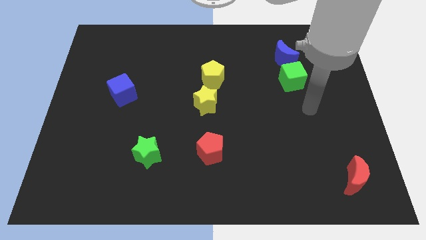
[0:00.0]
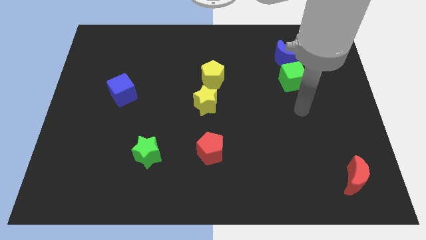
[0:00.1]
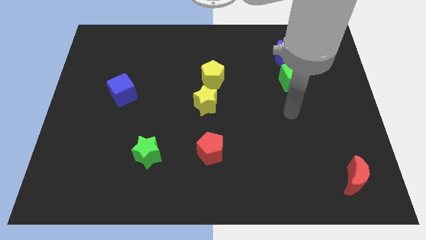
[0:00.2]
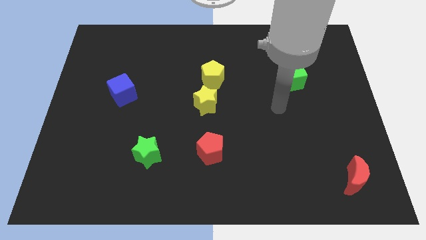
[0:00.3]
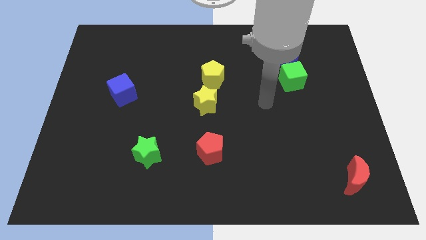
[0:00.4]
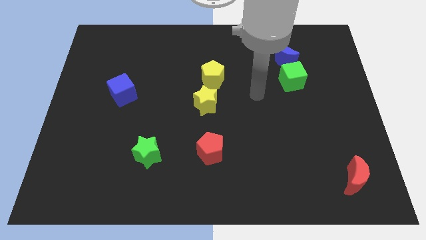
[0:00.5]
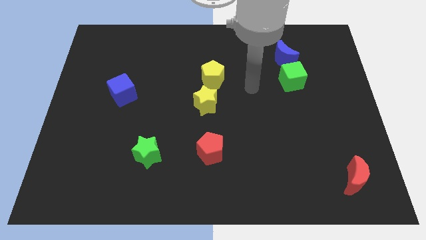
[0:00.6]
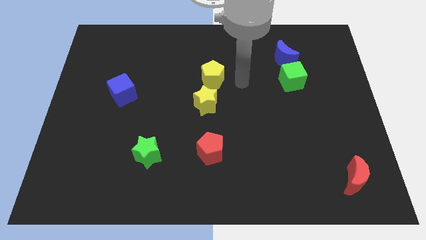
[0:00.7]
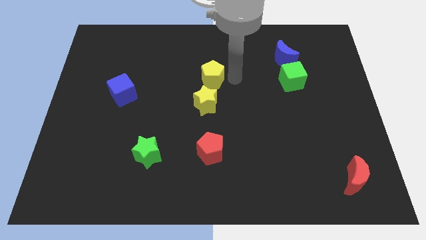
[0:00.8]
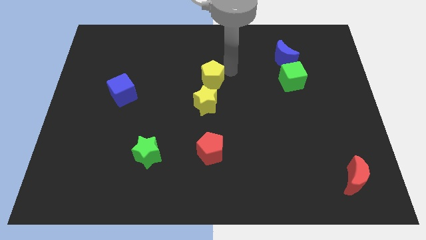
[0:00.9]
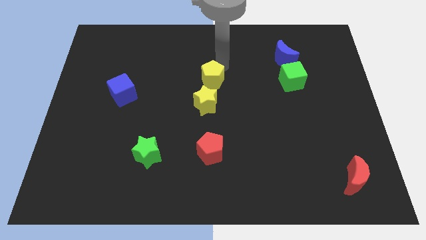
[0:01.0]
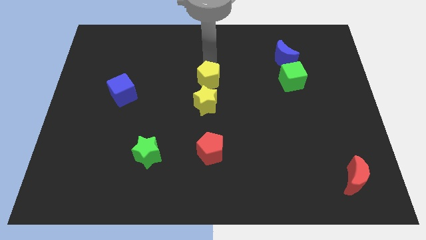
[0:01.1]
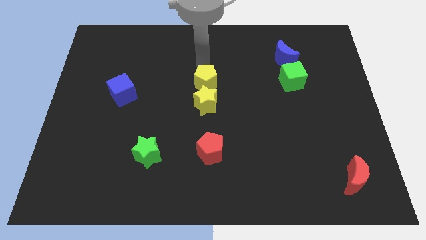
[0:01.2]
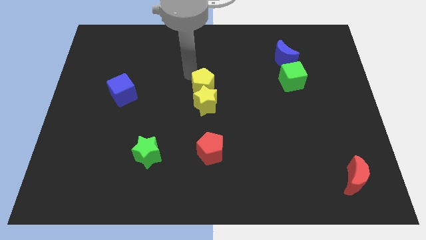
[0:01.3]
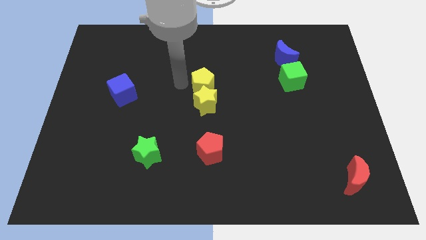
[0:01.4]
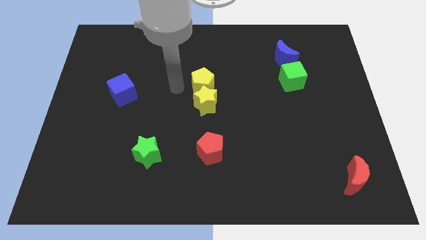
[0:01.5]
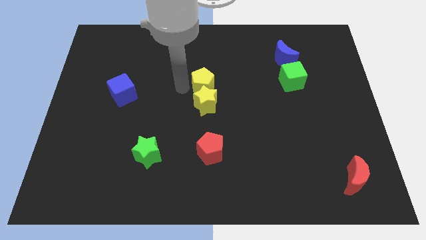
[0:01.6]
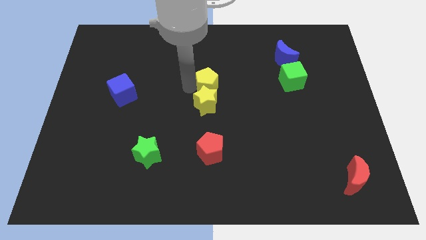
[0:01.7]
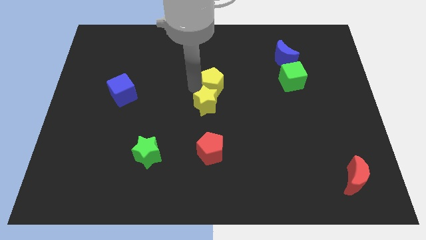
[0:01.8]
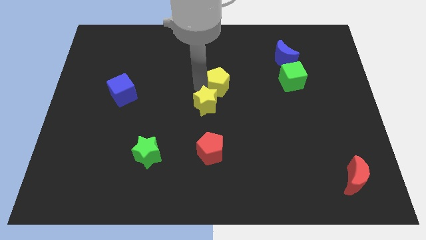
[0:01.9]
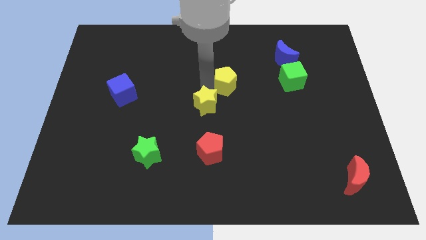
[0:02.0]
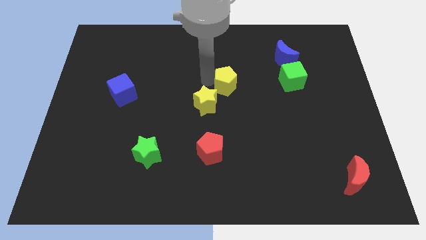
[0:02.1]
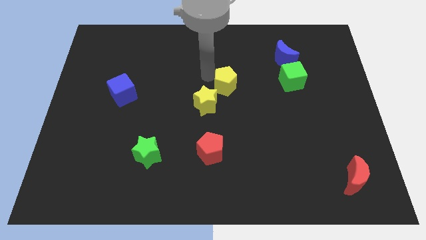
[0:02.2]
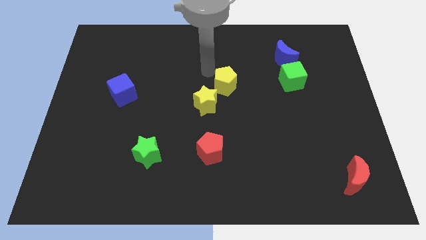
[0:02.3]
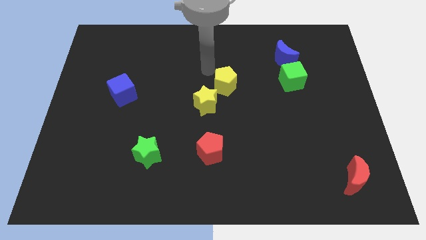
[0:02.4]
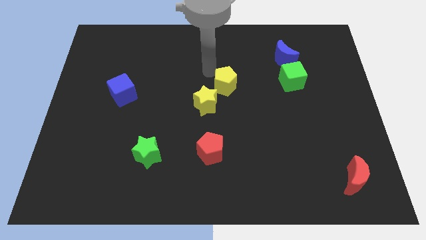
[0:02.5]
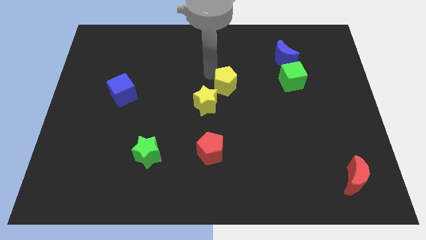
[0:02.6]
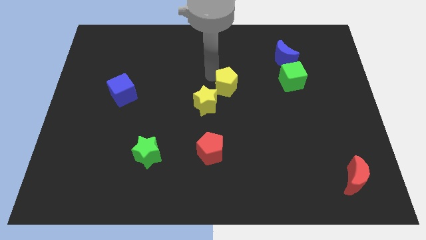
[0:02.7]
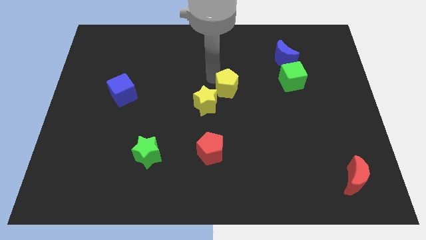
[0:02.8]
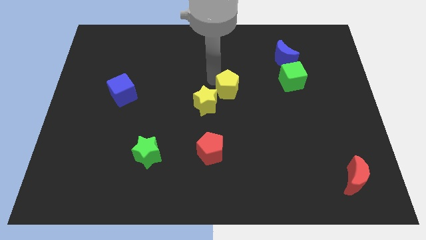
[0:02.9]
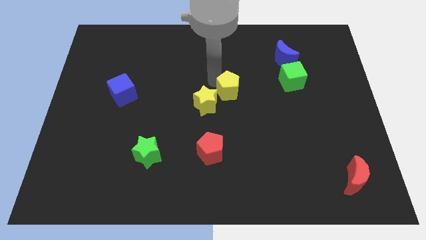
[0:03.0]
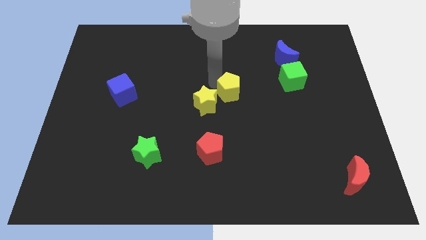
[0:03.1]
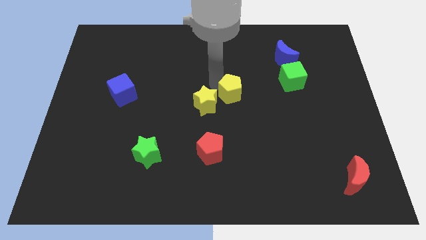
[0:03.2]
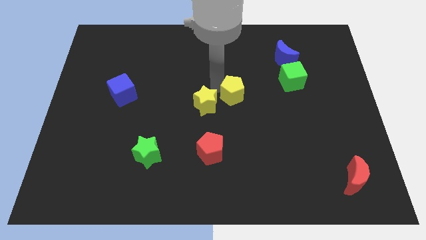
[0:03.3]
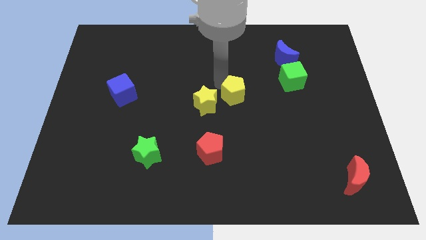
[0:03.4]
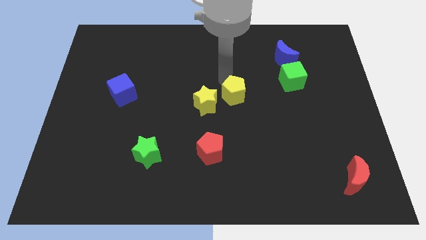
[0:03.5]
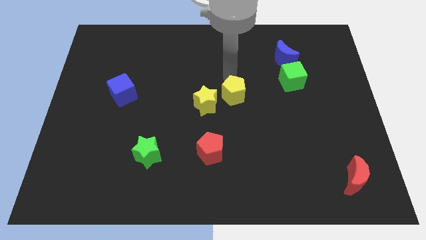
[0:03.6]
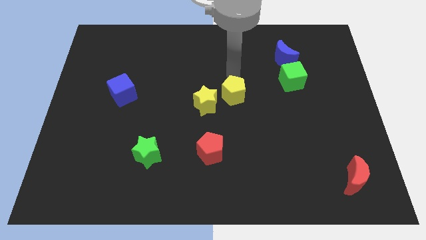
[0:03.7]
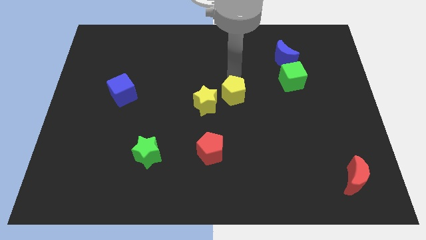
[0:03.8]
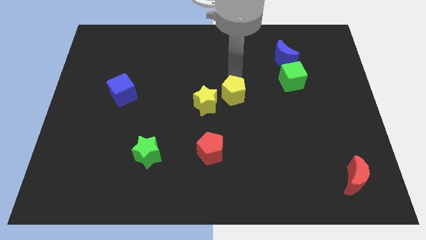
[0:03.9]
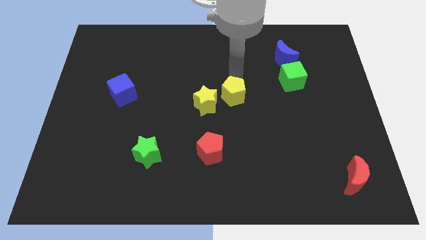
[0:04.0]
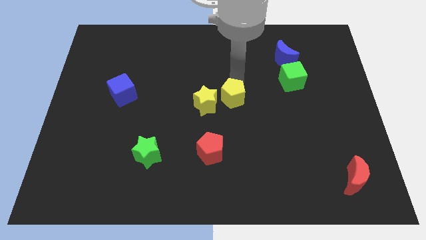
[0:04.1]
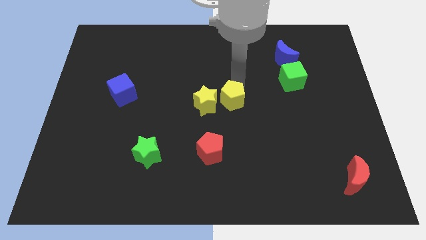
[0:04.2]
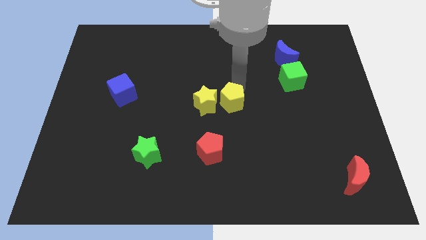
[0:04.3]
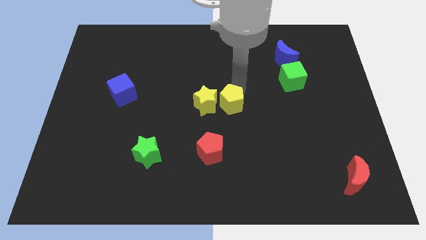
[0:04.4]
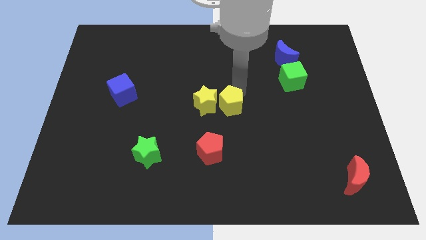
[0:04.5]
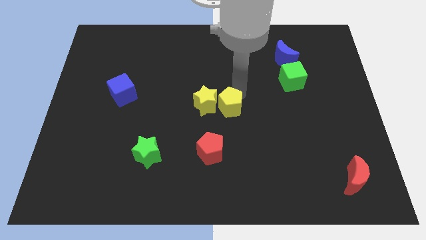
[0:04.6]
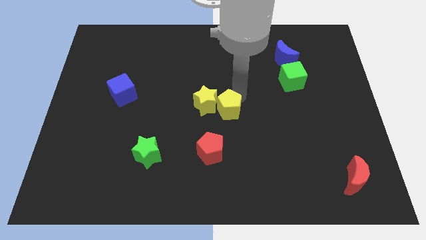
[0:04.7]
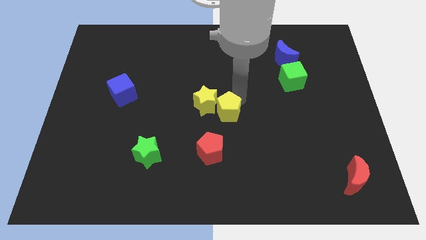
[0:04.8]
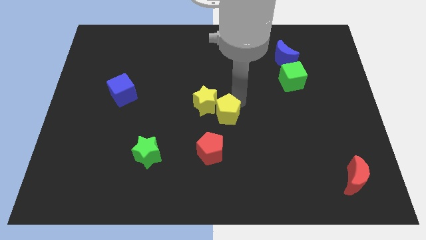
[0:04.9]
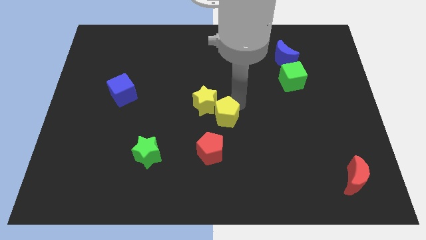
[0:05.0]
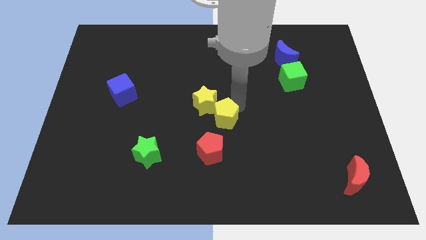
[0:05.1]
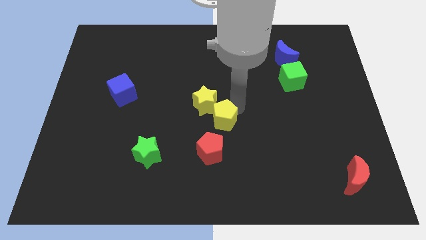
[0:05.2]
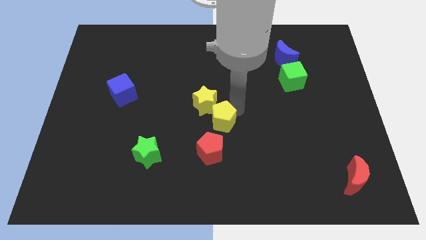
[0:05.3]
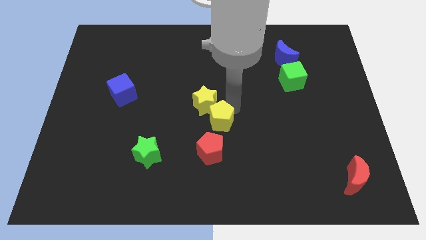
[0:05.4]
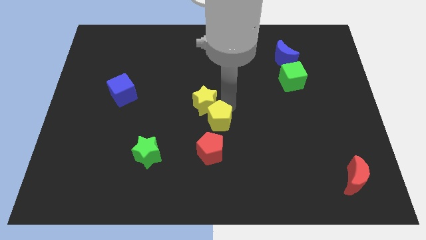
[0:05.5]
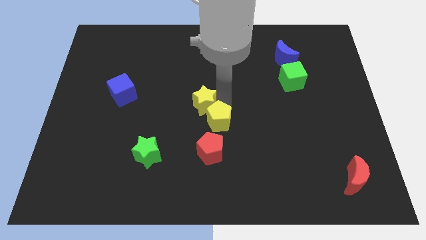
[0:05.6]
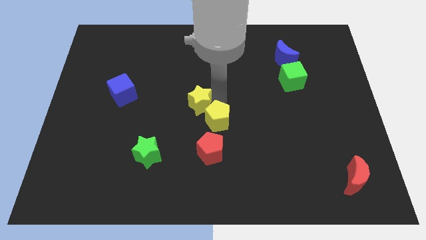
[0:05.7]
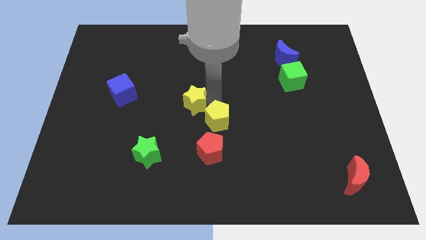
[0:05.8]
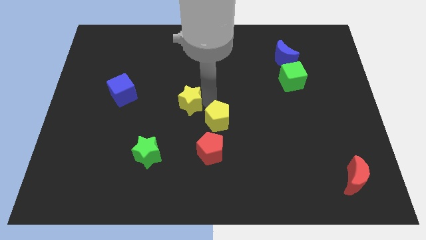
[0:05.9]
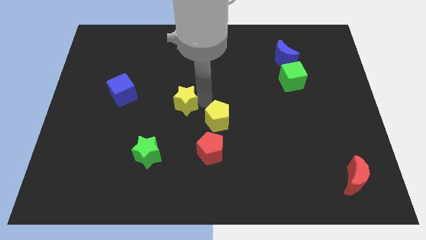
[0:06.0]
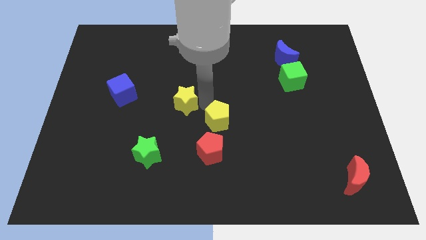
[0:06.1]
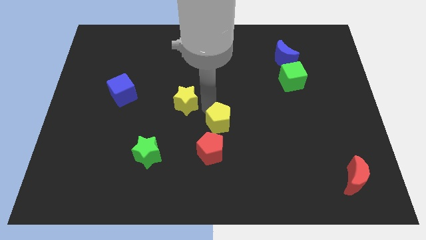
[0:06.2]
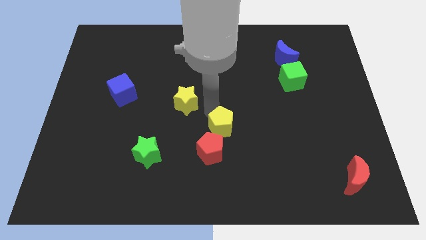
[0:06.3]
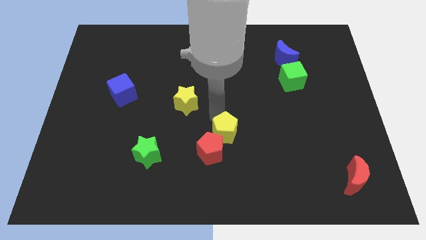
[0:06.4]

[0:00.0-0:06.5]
slide the yellow pentagon towards the red pentagon

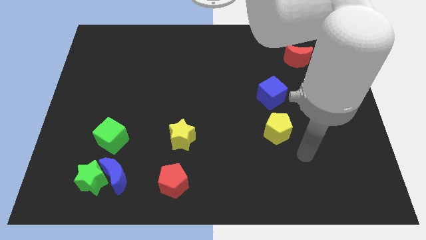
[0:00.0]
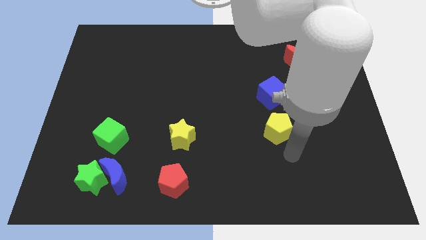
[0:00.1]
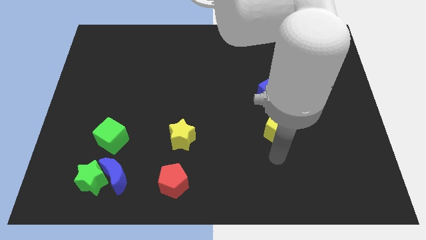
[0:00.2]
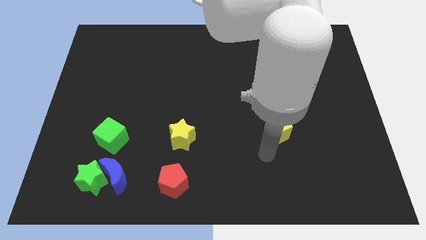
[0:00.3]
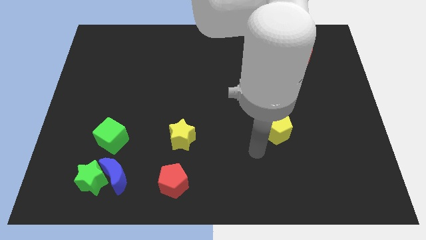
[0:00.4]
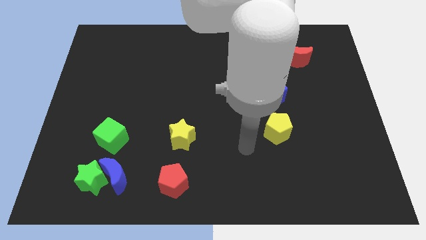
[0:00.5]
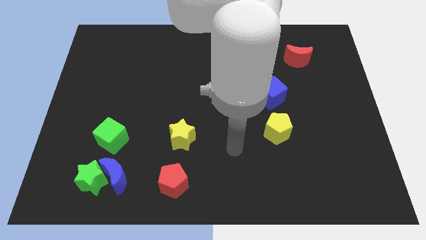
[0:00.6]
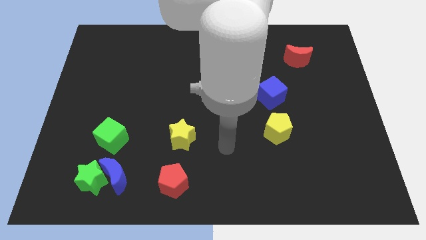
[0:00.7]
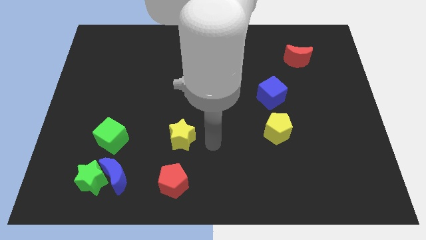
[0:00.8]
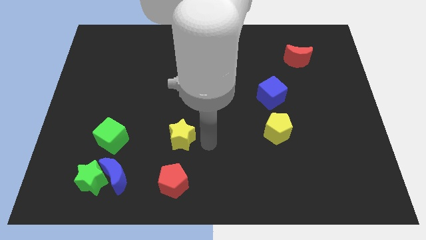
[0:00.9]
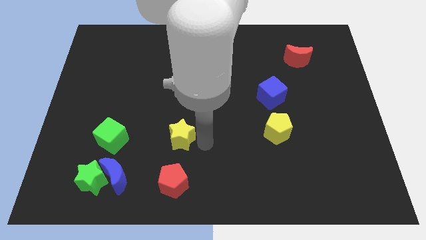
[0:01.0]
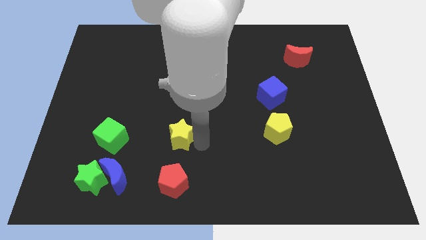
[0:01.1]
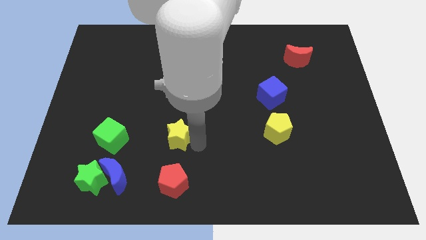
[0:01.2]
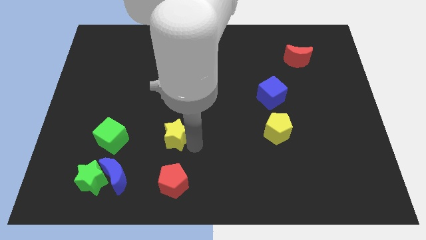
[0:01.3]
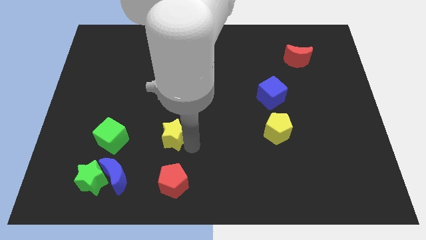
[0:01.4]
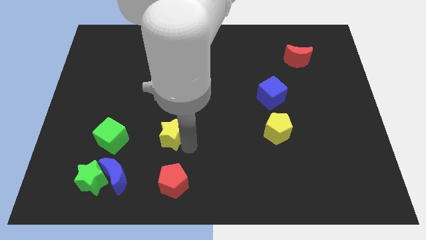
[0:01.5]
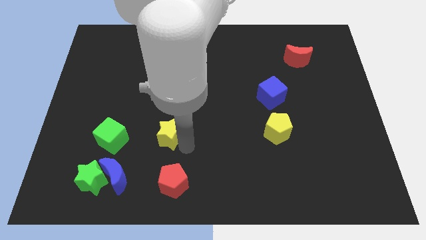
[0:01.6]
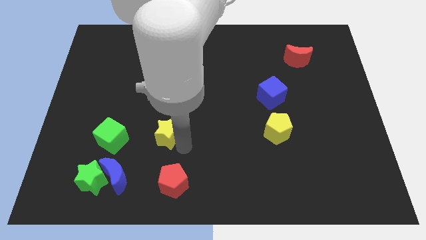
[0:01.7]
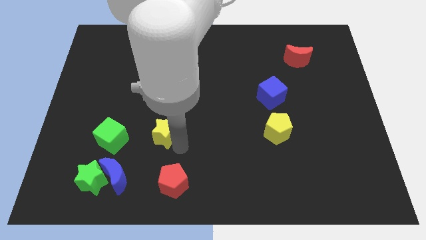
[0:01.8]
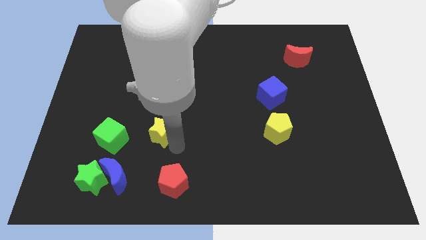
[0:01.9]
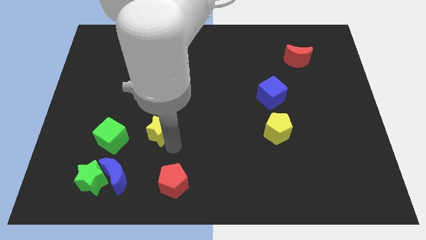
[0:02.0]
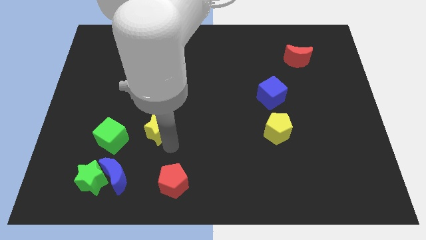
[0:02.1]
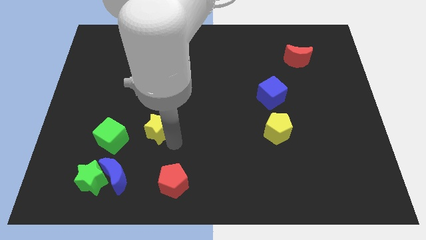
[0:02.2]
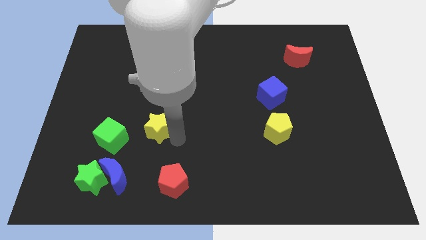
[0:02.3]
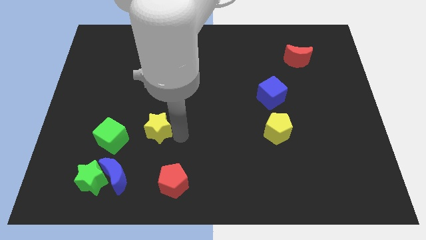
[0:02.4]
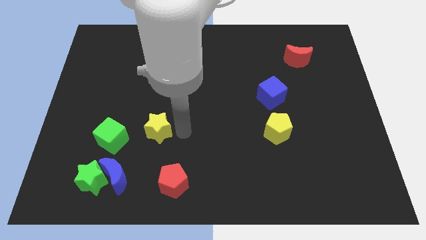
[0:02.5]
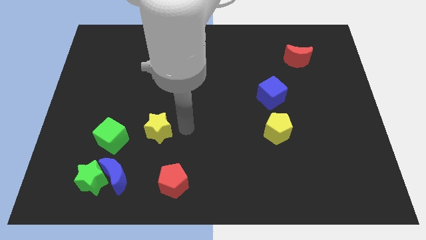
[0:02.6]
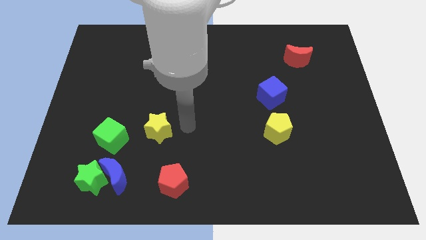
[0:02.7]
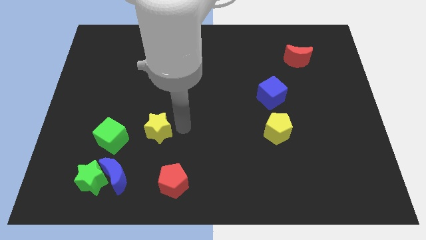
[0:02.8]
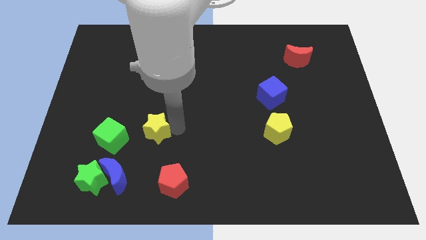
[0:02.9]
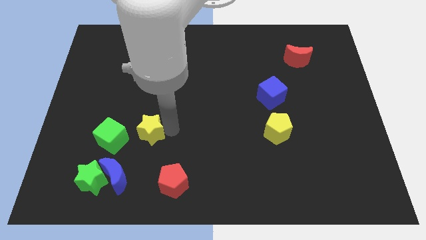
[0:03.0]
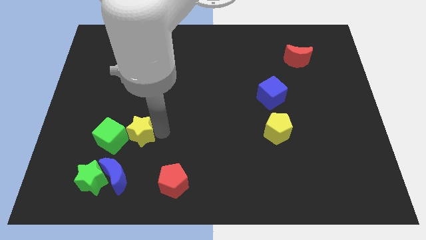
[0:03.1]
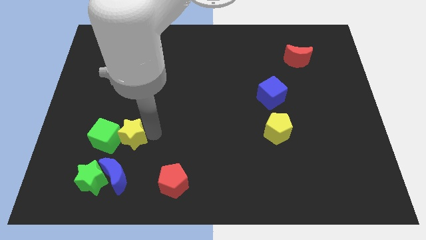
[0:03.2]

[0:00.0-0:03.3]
slide the yellow star close to the green cube
